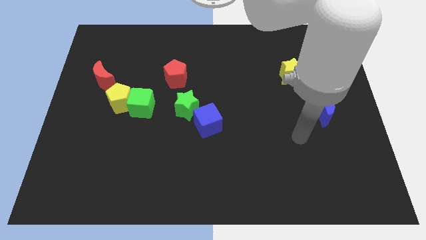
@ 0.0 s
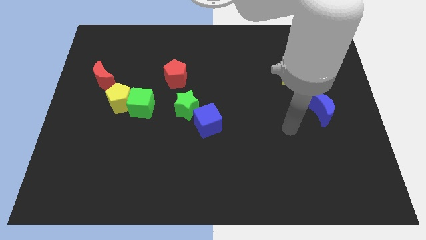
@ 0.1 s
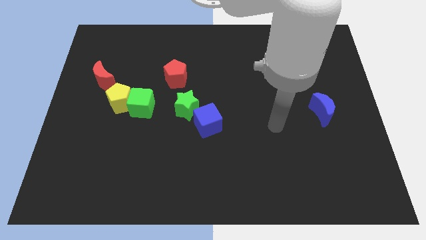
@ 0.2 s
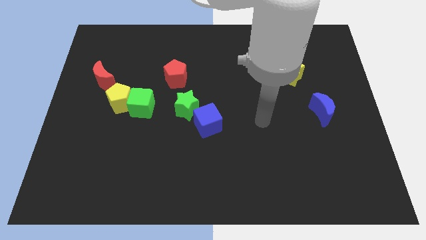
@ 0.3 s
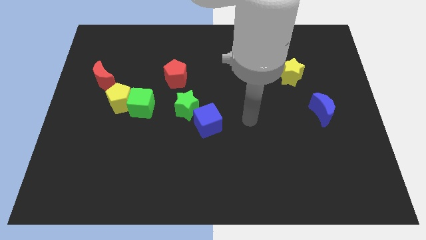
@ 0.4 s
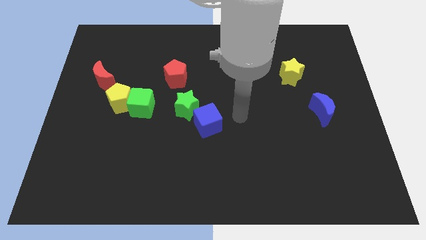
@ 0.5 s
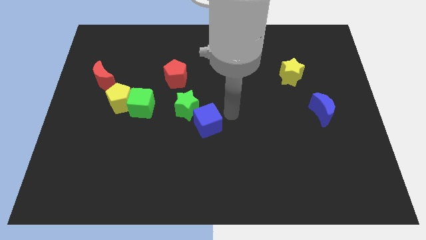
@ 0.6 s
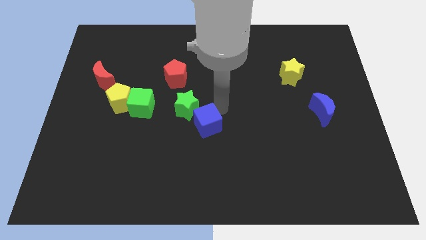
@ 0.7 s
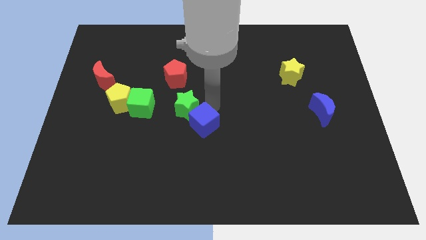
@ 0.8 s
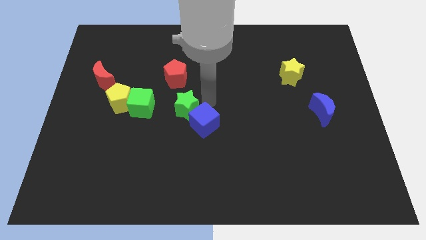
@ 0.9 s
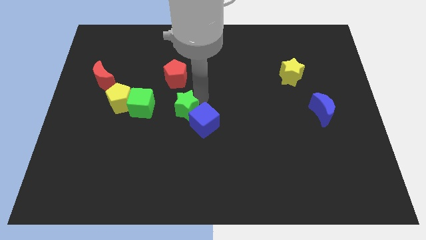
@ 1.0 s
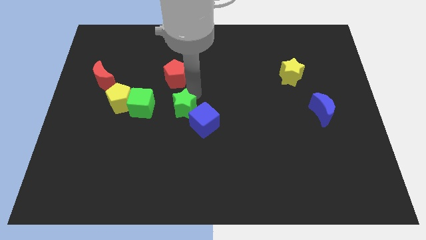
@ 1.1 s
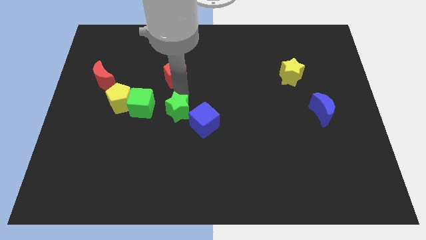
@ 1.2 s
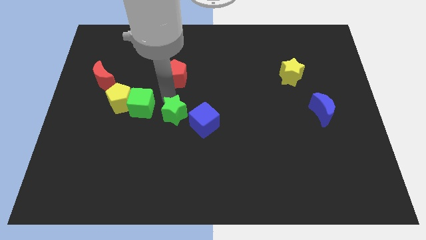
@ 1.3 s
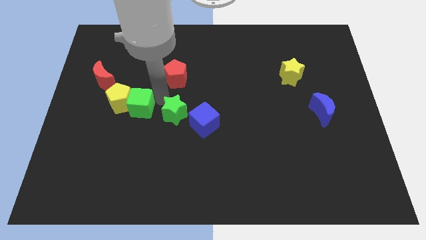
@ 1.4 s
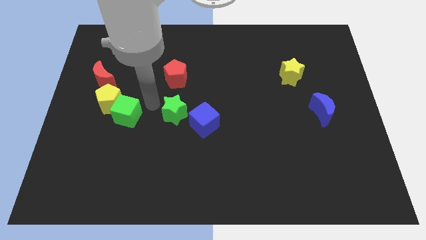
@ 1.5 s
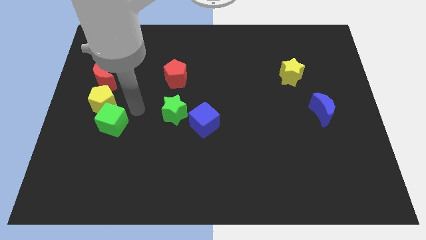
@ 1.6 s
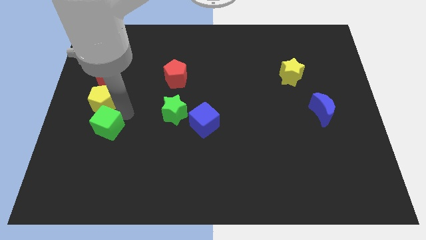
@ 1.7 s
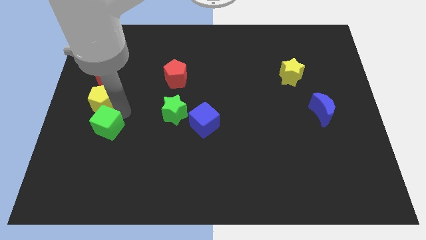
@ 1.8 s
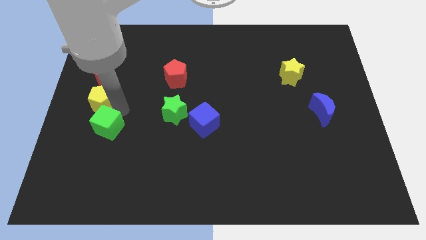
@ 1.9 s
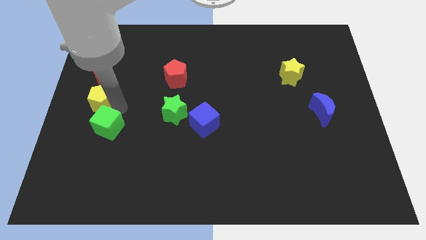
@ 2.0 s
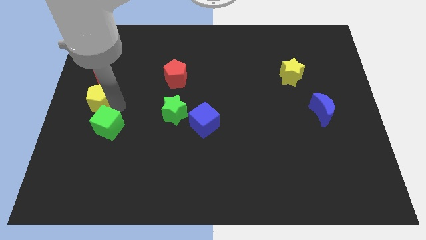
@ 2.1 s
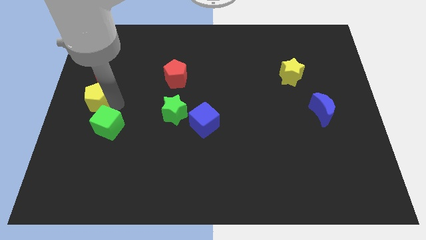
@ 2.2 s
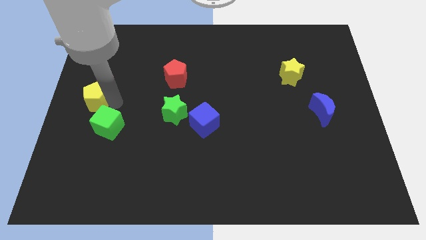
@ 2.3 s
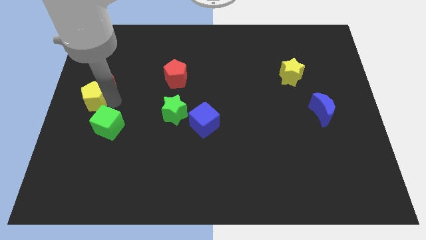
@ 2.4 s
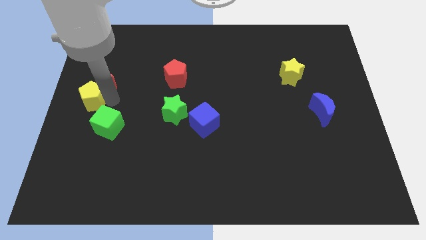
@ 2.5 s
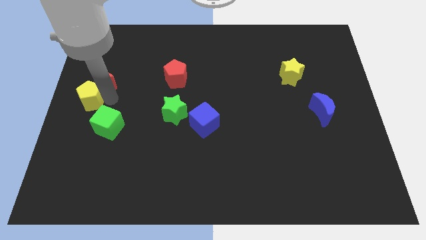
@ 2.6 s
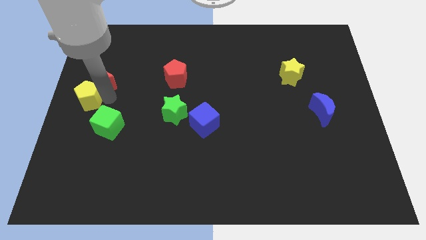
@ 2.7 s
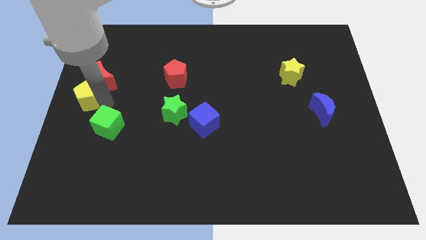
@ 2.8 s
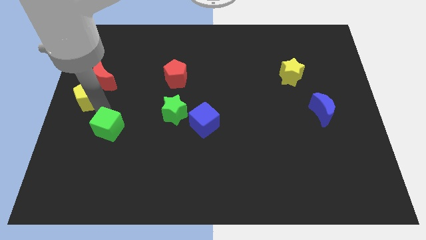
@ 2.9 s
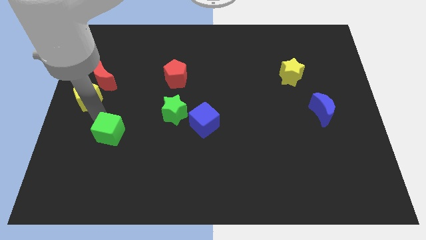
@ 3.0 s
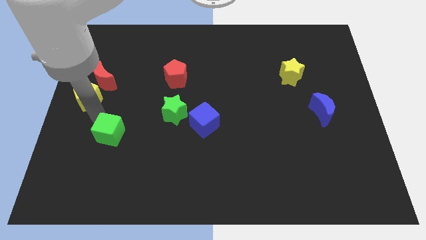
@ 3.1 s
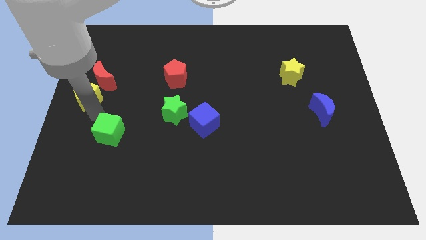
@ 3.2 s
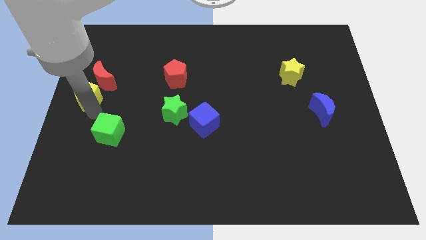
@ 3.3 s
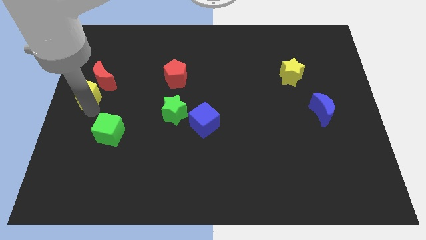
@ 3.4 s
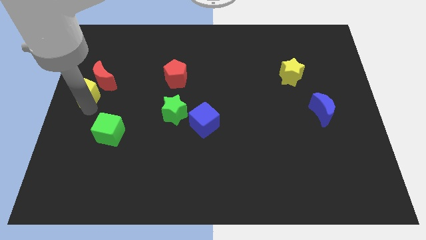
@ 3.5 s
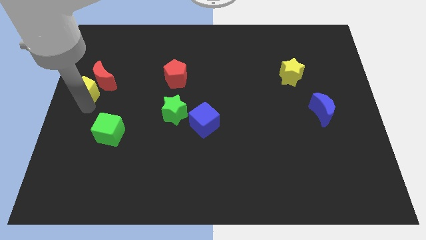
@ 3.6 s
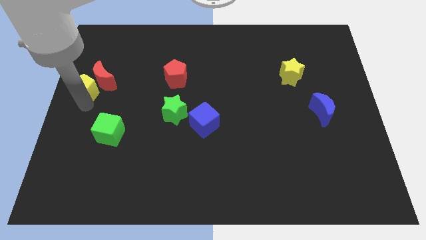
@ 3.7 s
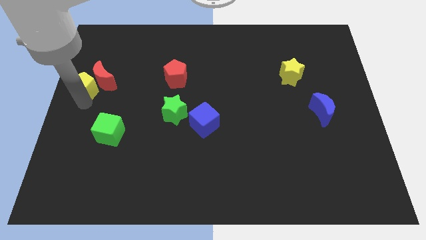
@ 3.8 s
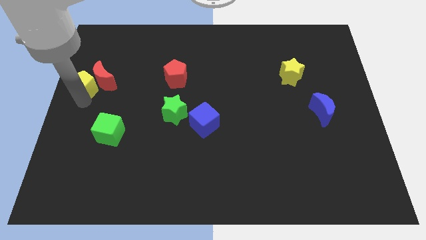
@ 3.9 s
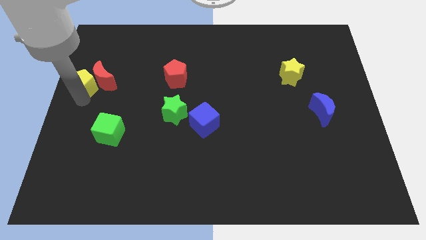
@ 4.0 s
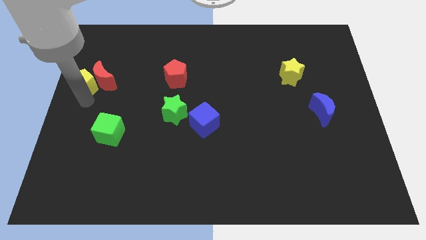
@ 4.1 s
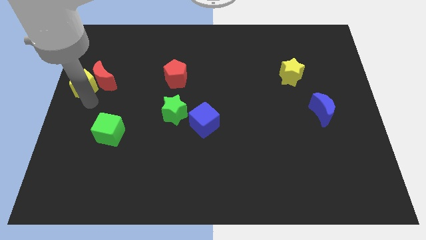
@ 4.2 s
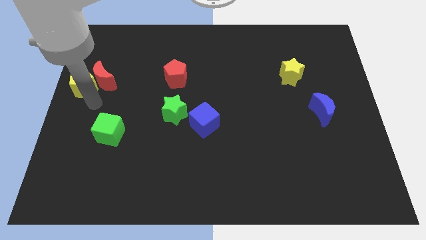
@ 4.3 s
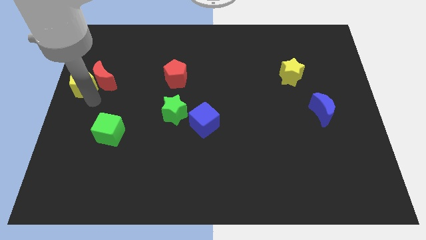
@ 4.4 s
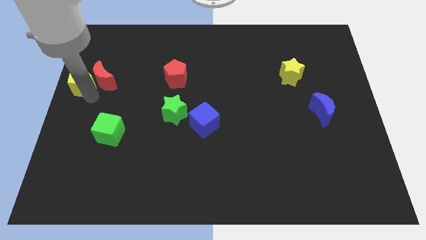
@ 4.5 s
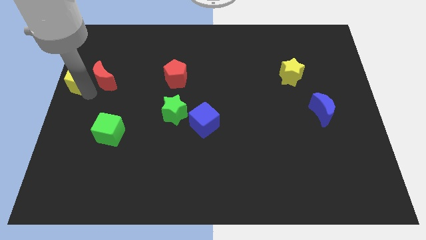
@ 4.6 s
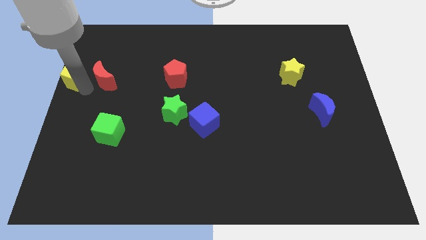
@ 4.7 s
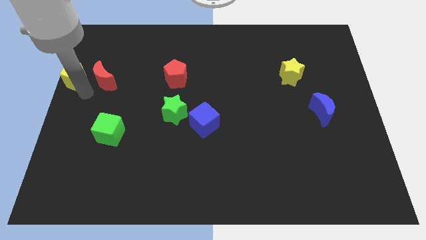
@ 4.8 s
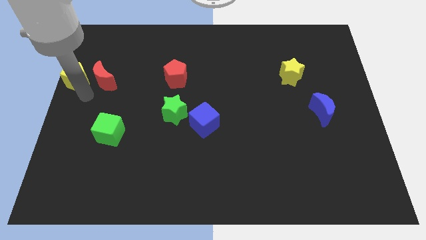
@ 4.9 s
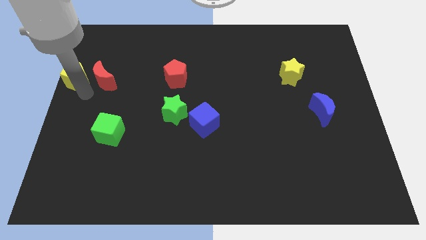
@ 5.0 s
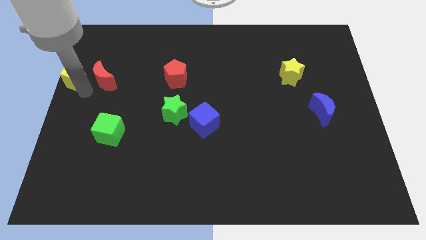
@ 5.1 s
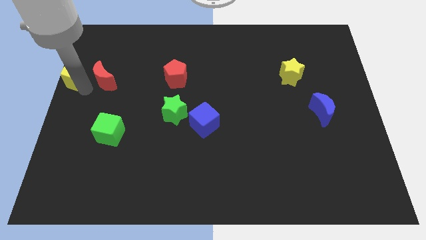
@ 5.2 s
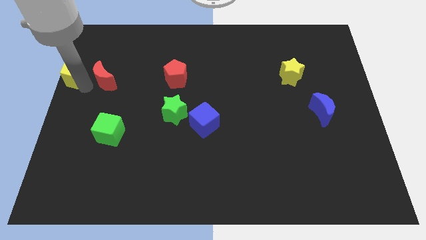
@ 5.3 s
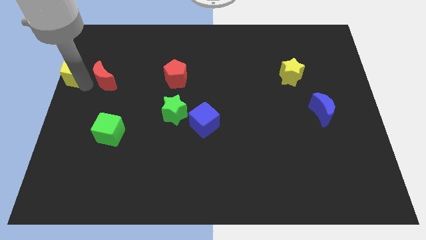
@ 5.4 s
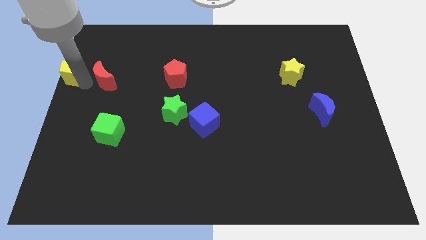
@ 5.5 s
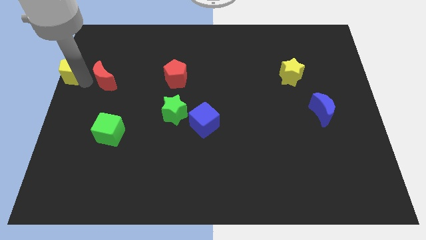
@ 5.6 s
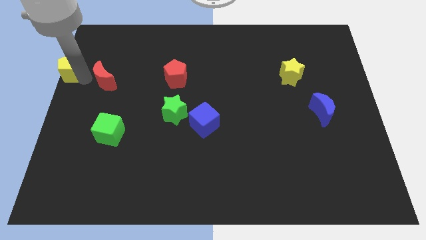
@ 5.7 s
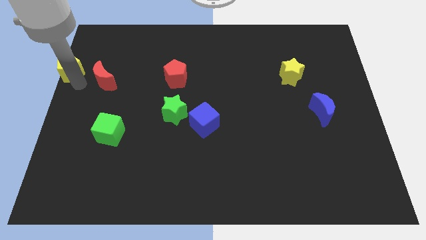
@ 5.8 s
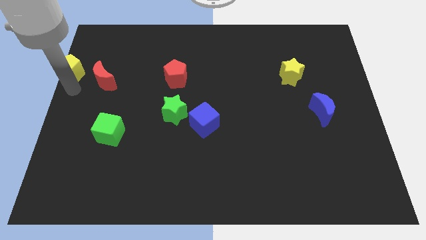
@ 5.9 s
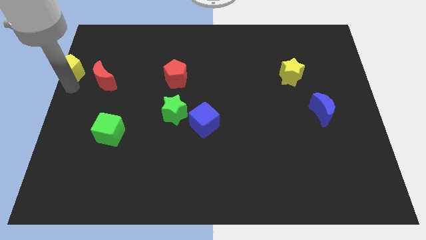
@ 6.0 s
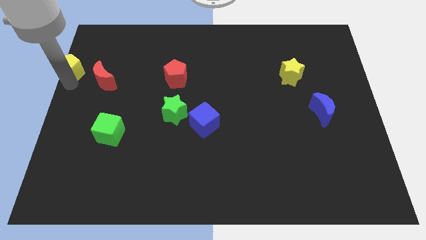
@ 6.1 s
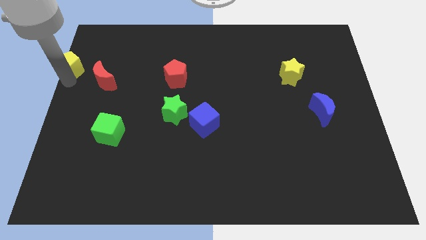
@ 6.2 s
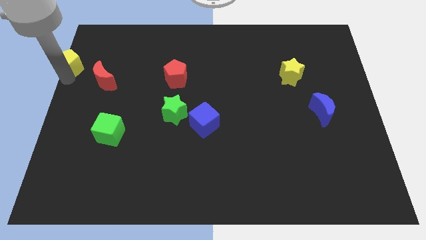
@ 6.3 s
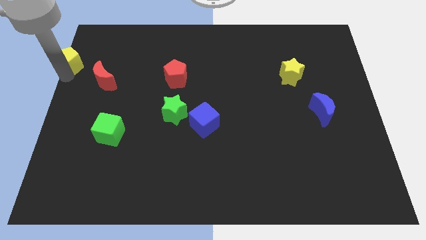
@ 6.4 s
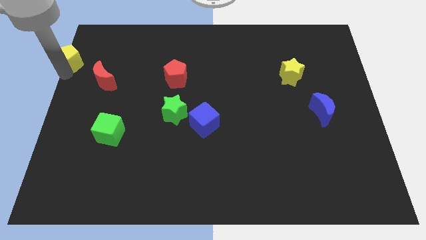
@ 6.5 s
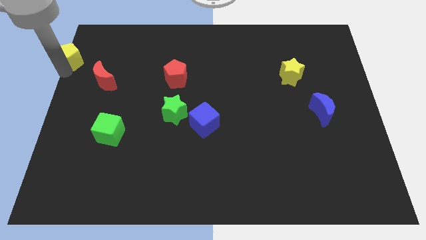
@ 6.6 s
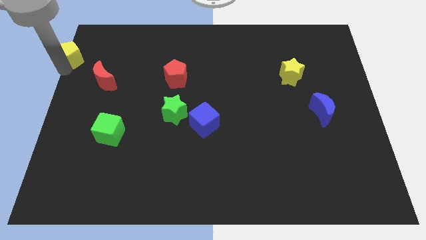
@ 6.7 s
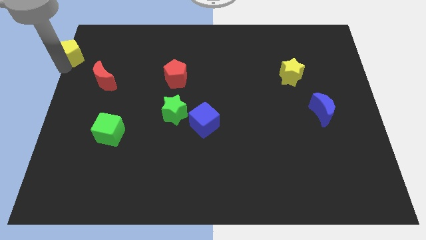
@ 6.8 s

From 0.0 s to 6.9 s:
put the yellow pentagon to the upper left corner
